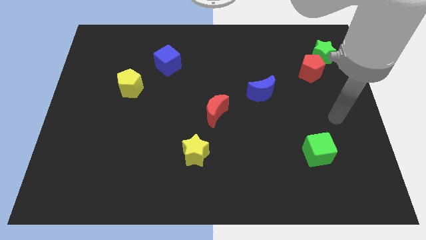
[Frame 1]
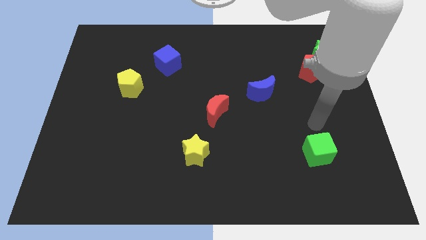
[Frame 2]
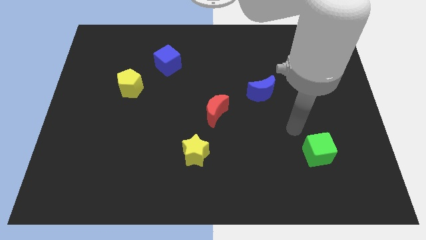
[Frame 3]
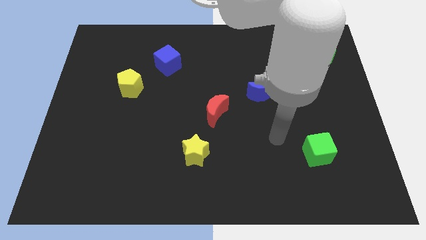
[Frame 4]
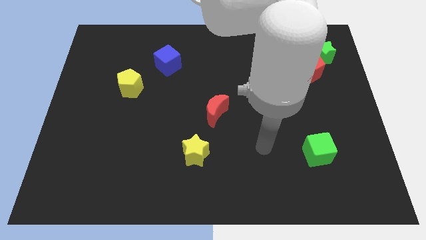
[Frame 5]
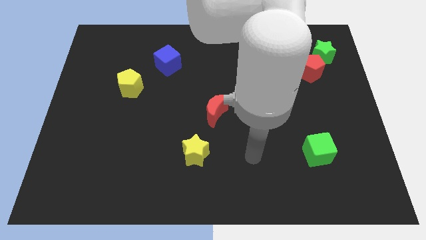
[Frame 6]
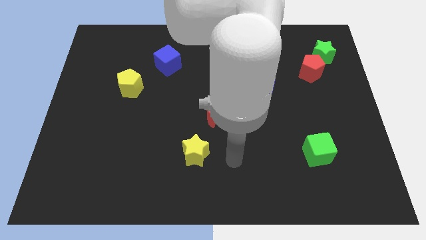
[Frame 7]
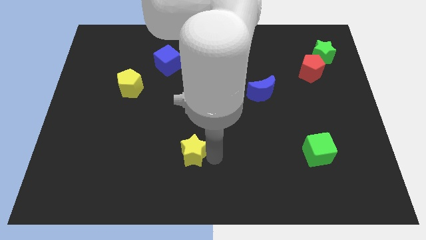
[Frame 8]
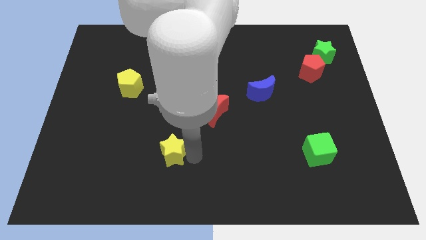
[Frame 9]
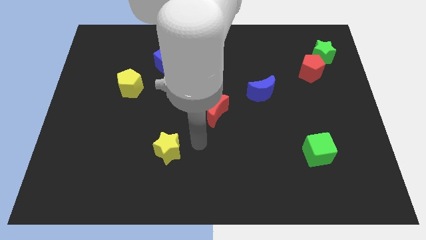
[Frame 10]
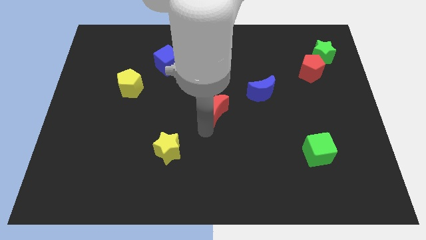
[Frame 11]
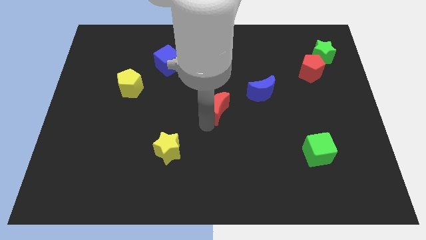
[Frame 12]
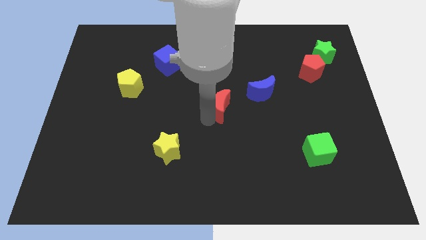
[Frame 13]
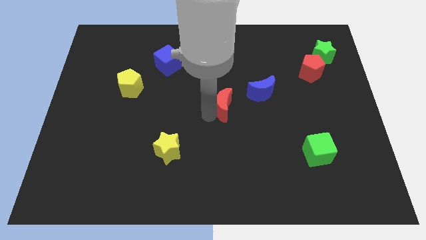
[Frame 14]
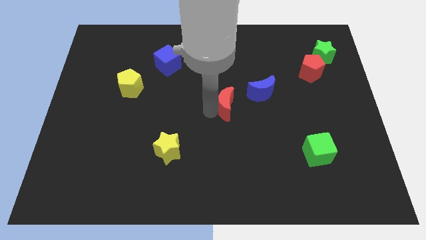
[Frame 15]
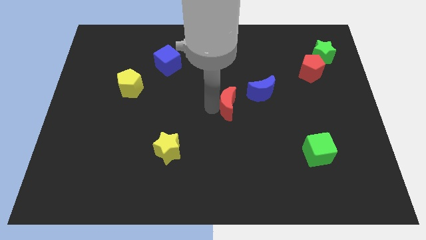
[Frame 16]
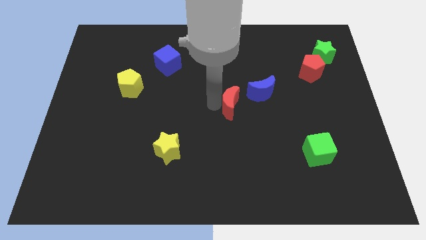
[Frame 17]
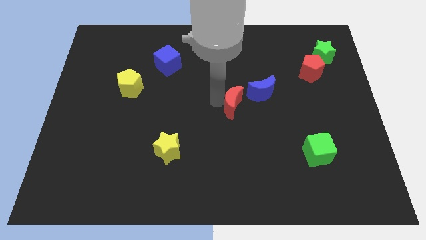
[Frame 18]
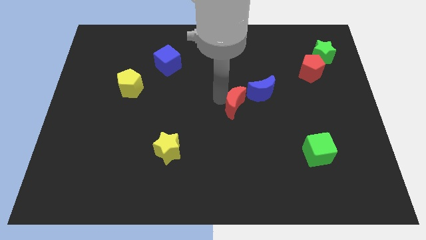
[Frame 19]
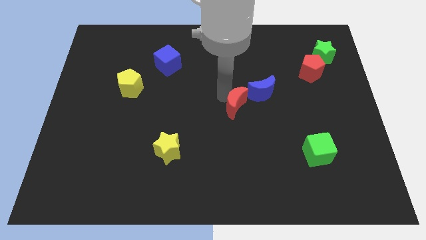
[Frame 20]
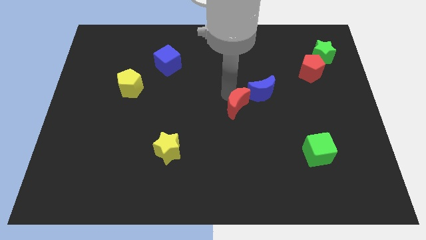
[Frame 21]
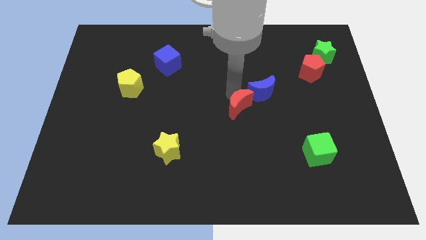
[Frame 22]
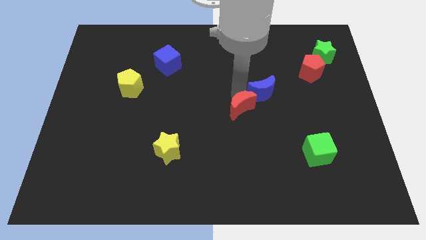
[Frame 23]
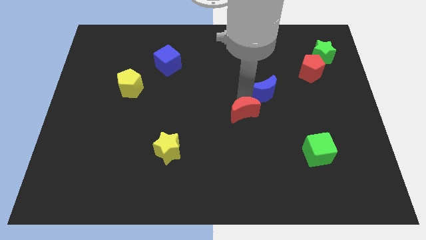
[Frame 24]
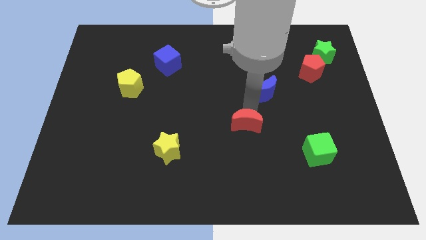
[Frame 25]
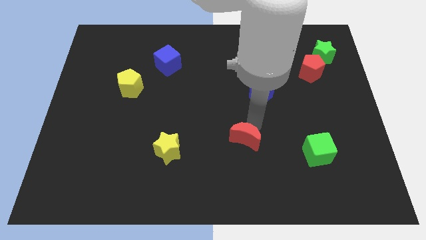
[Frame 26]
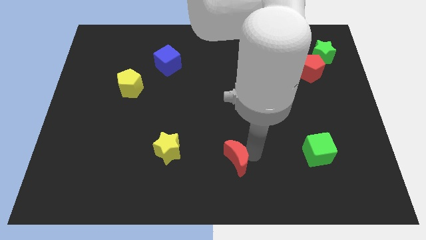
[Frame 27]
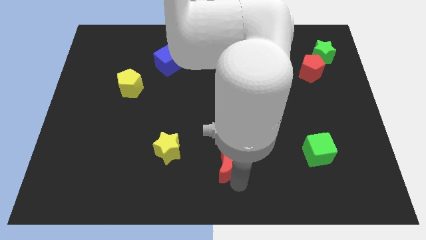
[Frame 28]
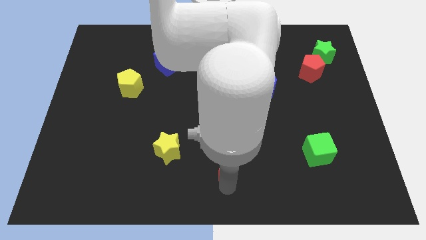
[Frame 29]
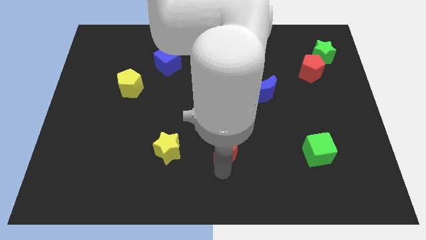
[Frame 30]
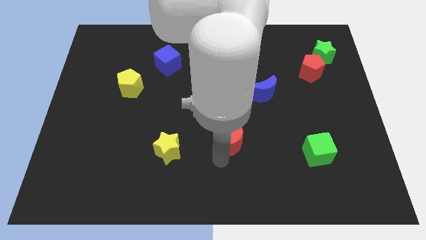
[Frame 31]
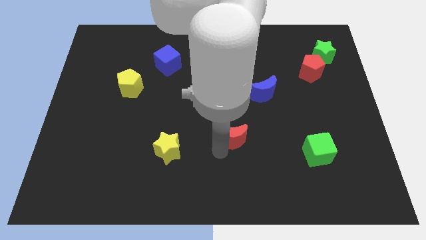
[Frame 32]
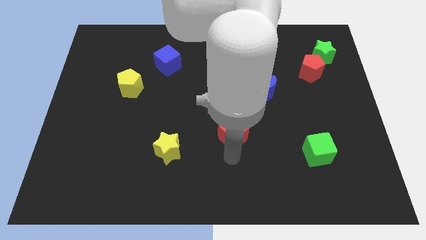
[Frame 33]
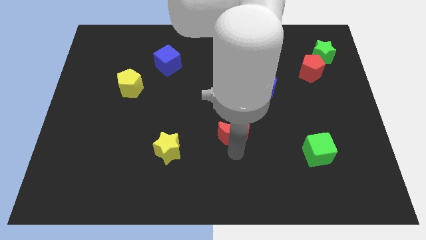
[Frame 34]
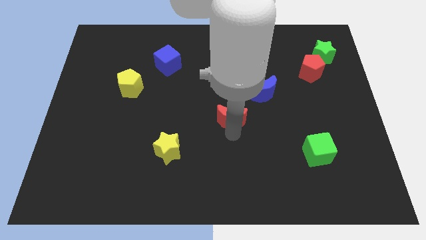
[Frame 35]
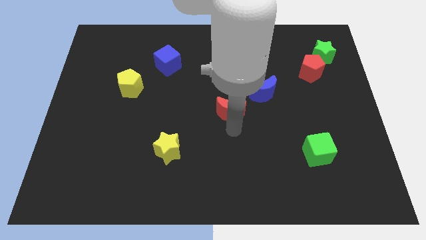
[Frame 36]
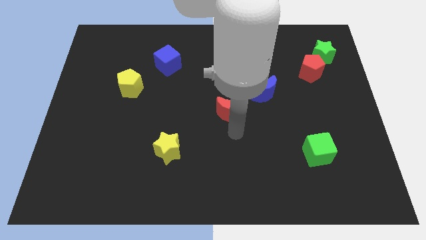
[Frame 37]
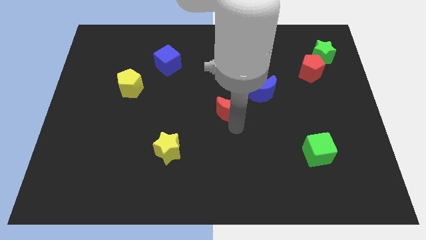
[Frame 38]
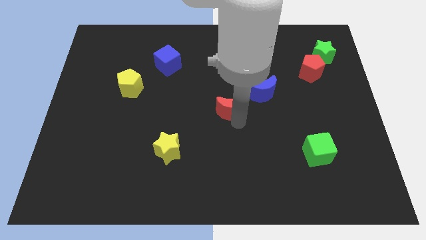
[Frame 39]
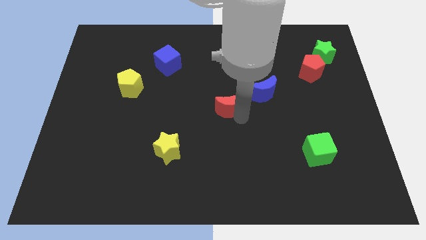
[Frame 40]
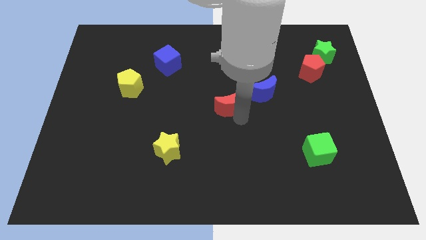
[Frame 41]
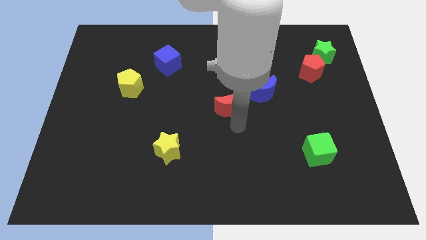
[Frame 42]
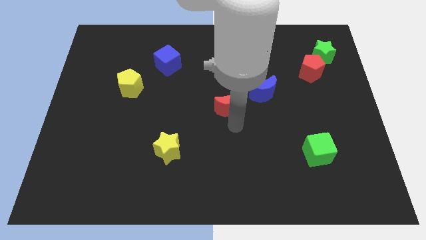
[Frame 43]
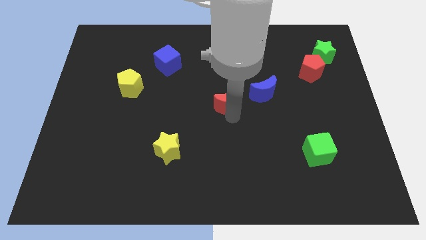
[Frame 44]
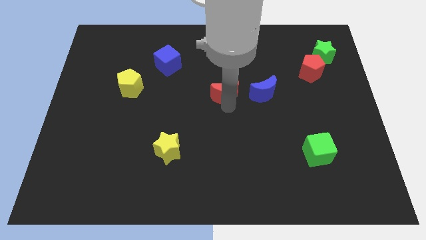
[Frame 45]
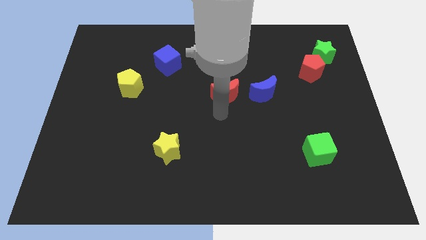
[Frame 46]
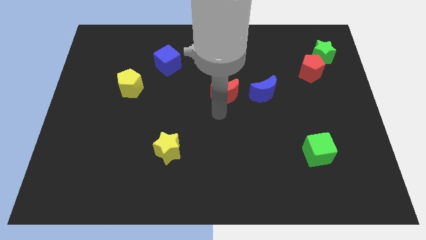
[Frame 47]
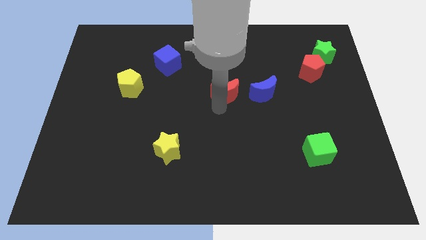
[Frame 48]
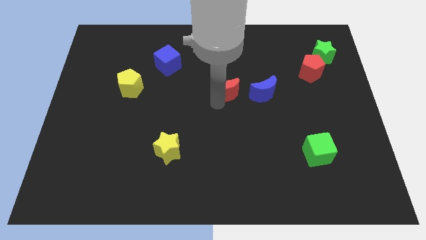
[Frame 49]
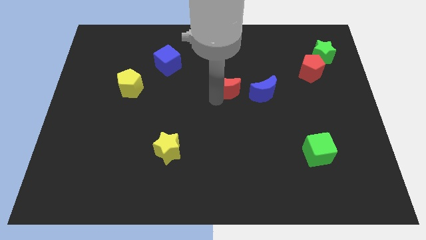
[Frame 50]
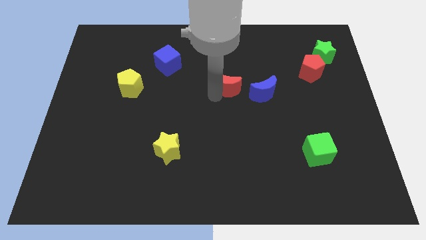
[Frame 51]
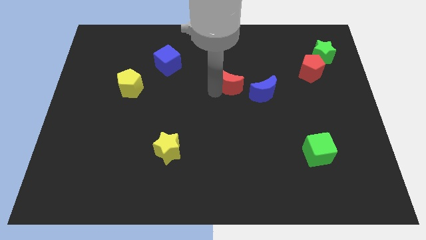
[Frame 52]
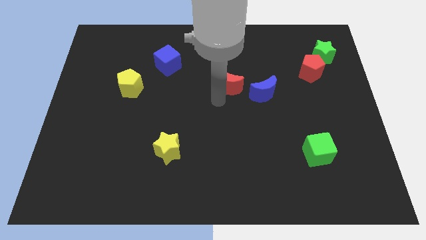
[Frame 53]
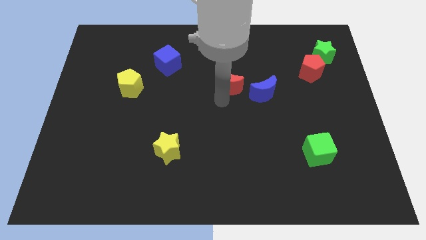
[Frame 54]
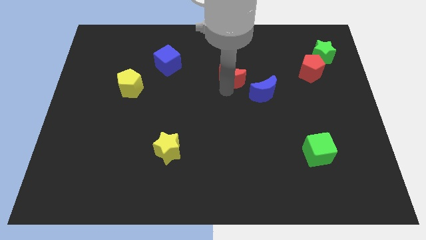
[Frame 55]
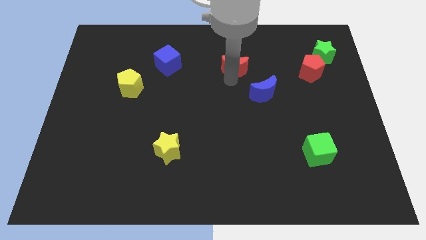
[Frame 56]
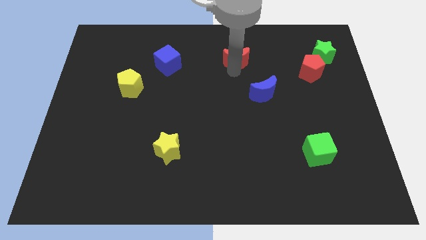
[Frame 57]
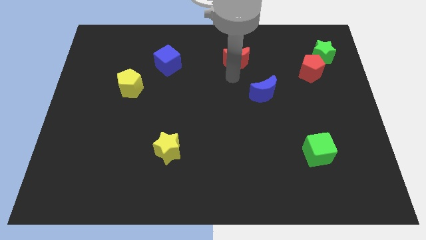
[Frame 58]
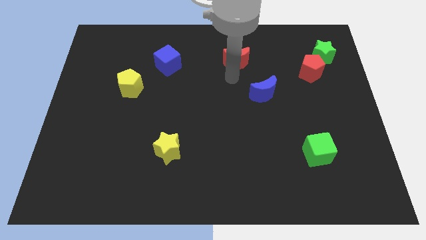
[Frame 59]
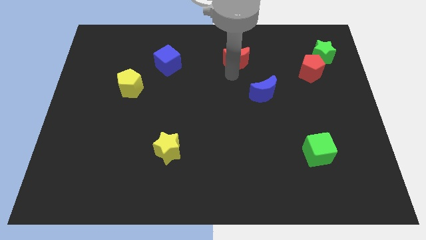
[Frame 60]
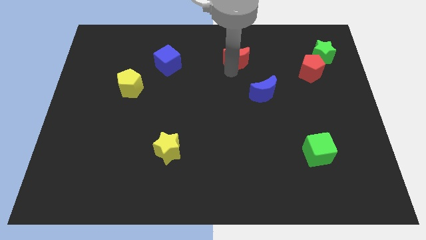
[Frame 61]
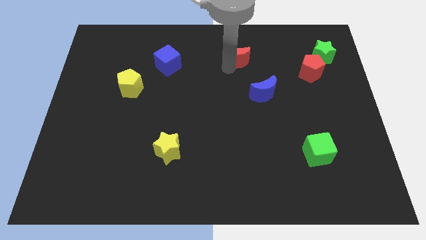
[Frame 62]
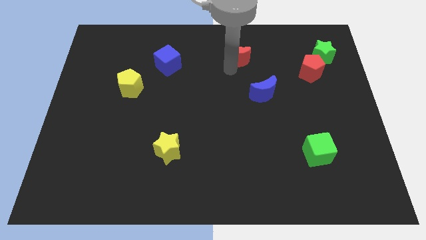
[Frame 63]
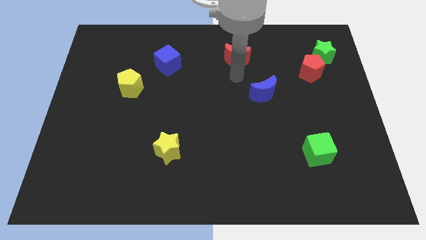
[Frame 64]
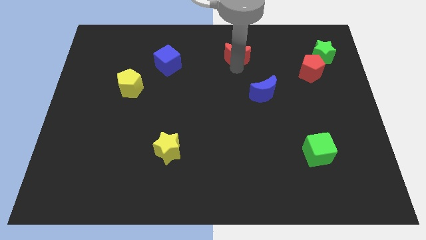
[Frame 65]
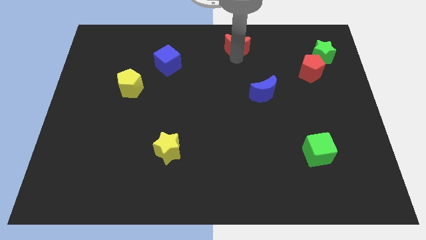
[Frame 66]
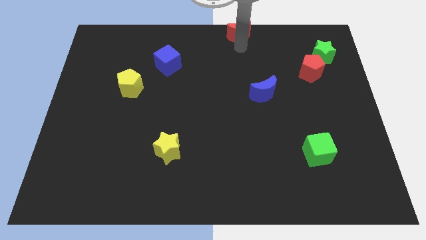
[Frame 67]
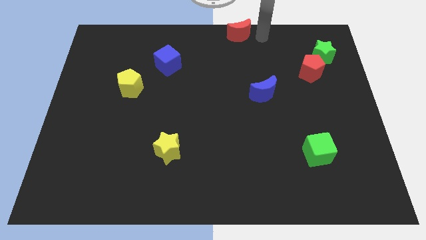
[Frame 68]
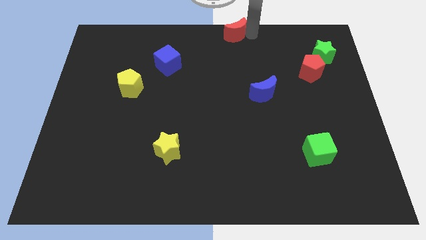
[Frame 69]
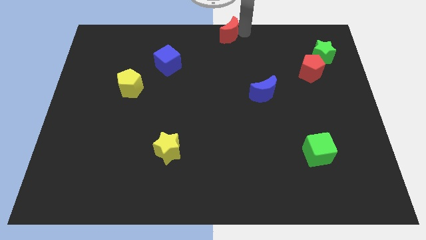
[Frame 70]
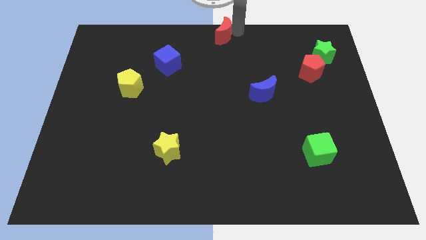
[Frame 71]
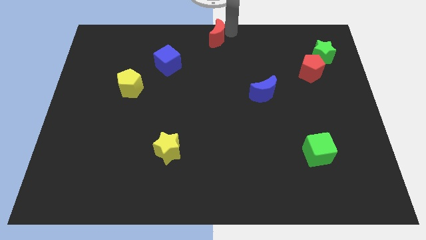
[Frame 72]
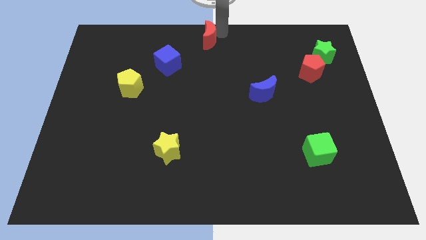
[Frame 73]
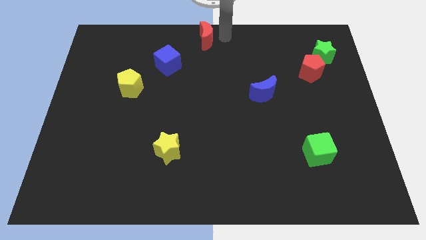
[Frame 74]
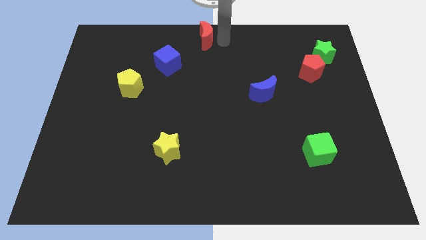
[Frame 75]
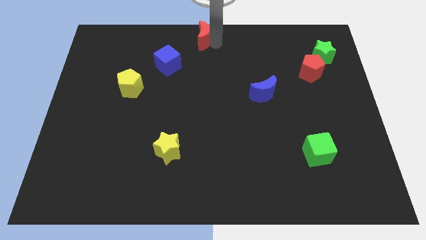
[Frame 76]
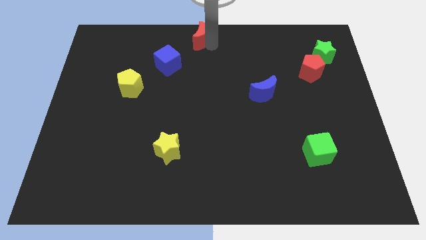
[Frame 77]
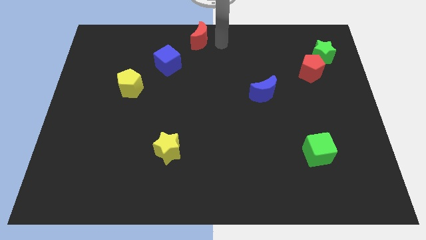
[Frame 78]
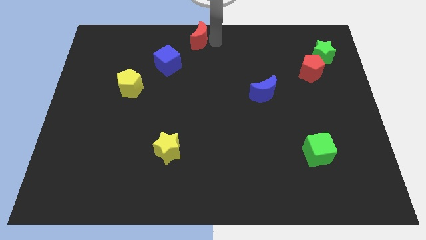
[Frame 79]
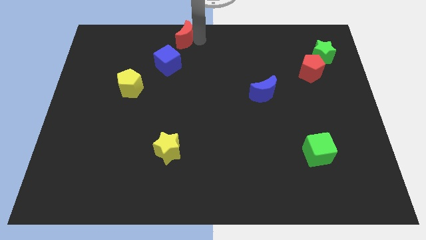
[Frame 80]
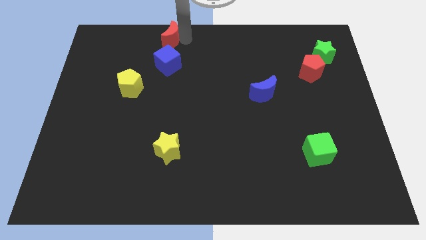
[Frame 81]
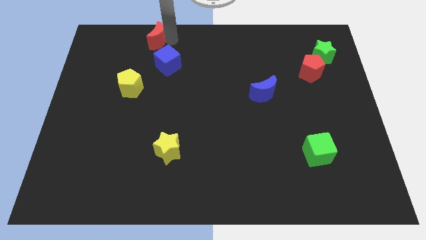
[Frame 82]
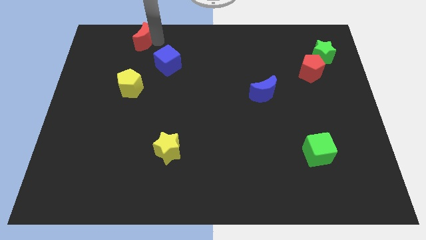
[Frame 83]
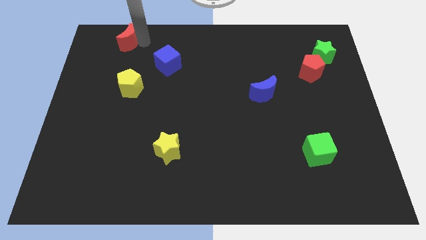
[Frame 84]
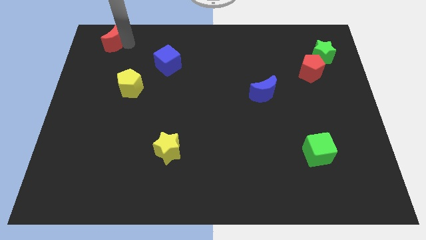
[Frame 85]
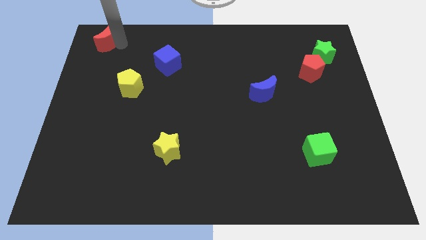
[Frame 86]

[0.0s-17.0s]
put the red moon to the top left
